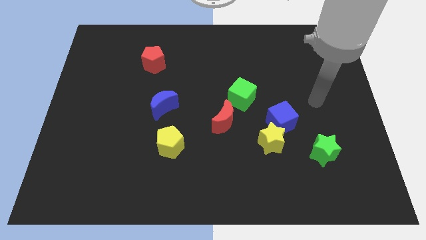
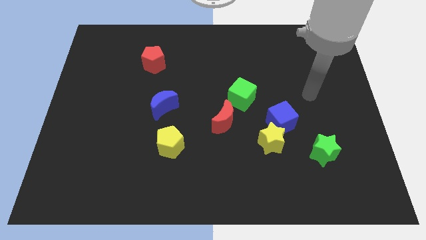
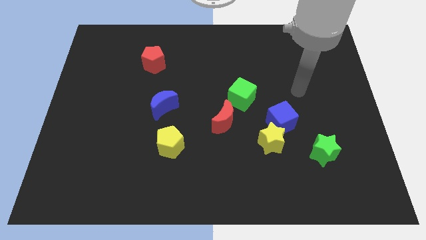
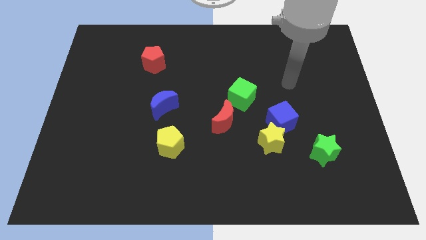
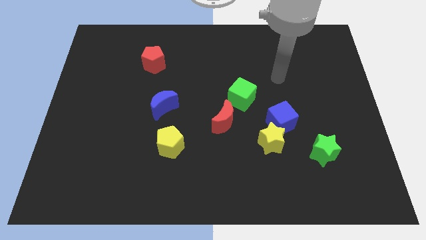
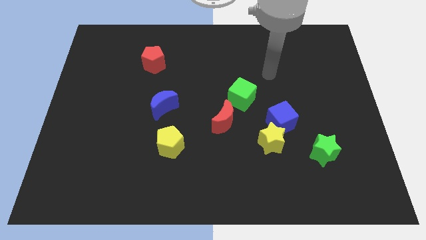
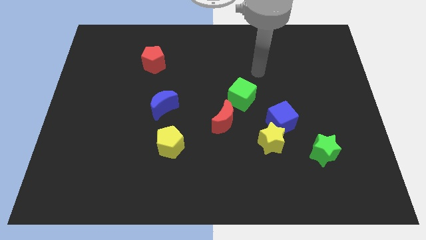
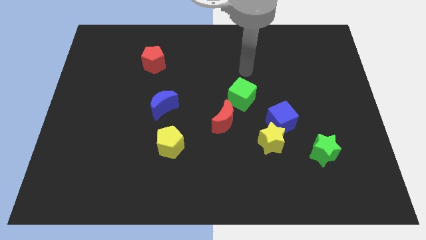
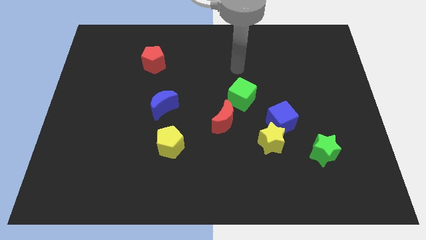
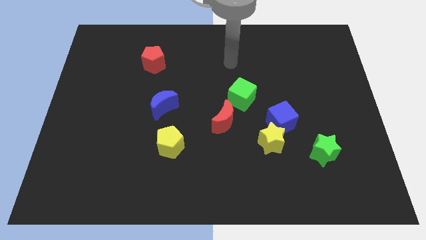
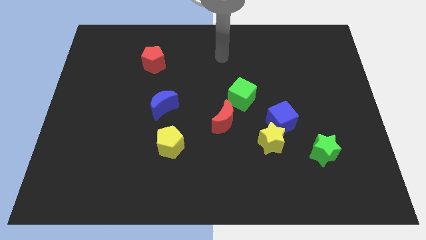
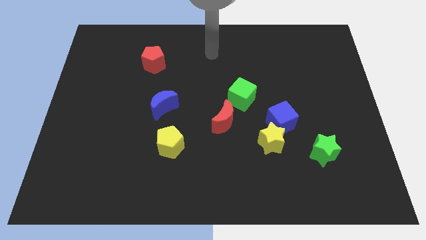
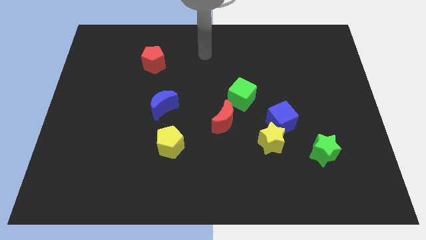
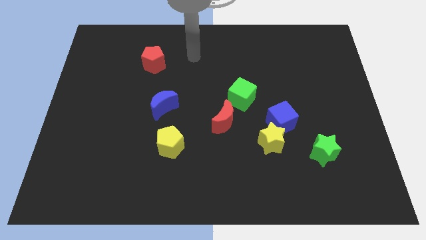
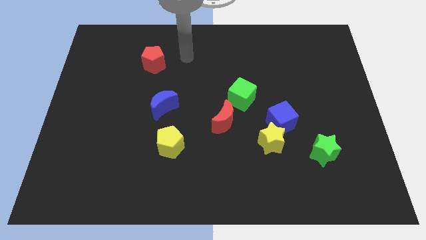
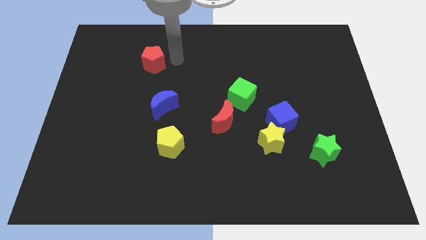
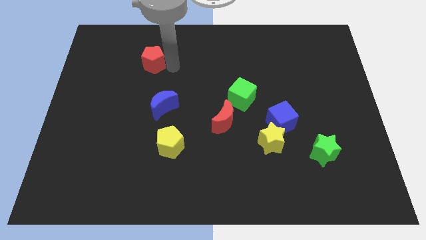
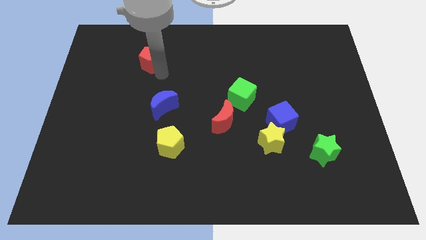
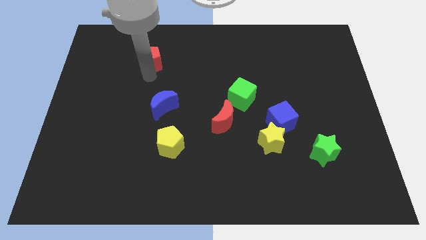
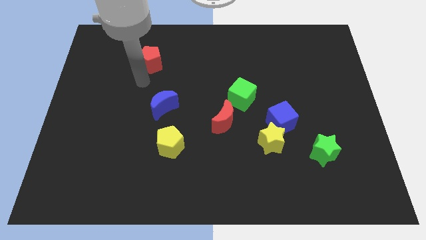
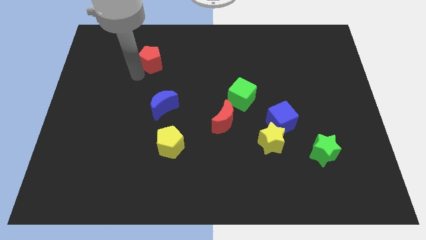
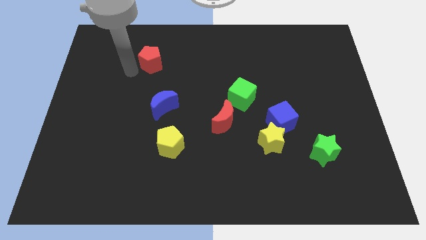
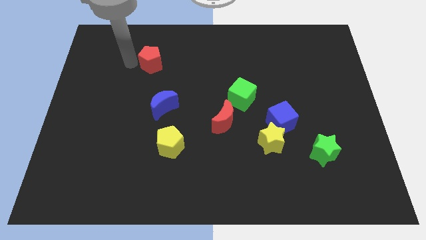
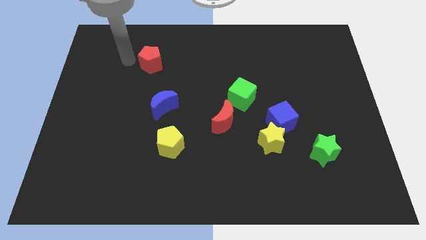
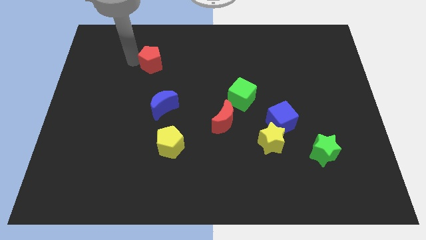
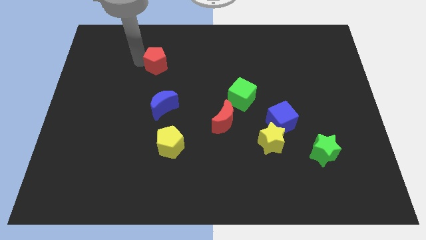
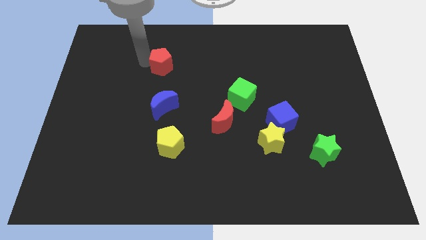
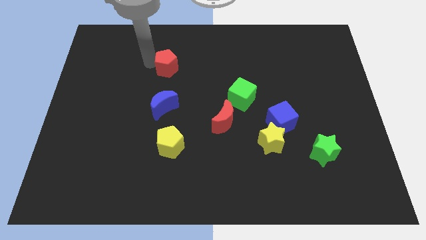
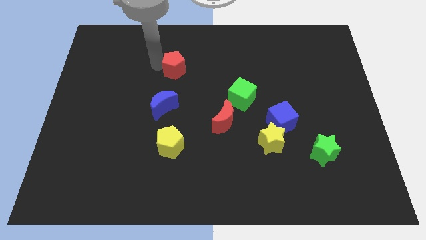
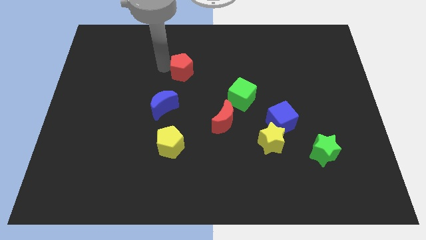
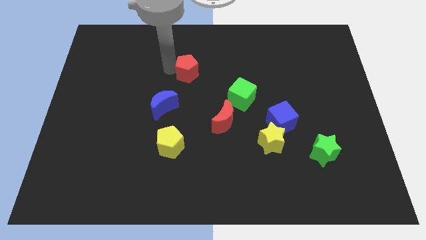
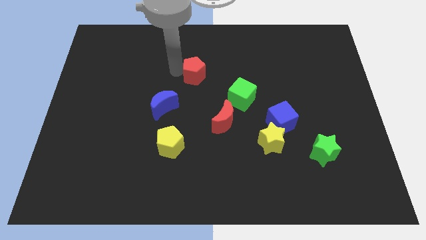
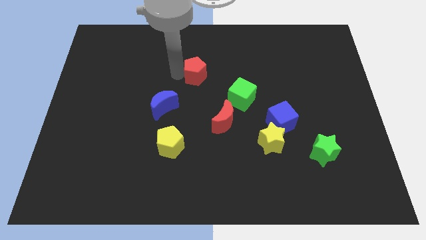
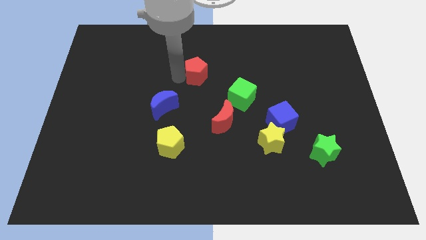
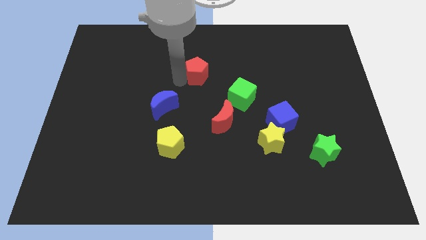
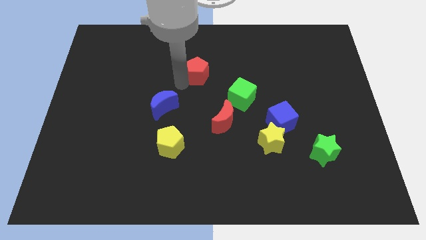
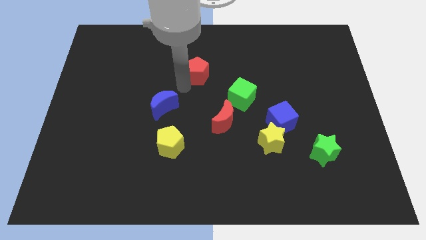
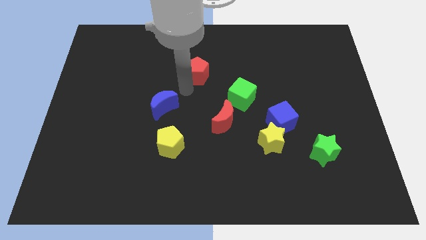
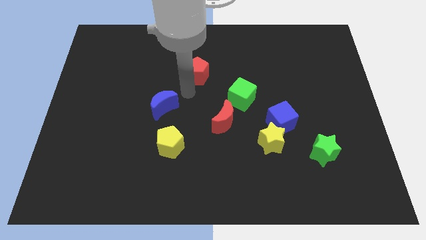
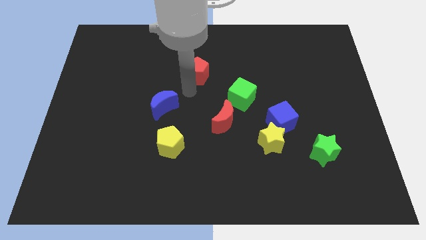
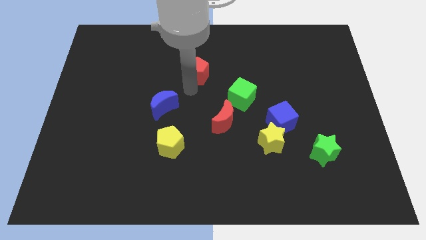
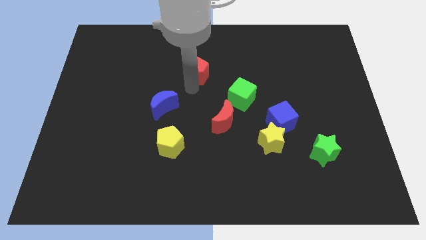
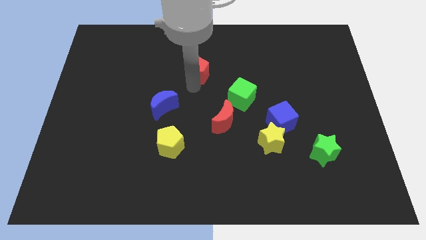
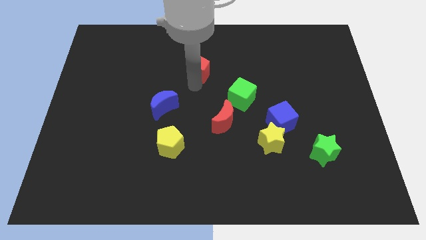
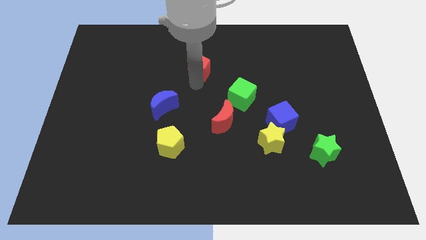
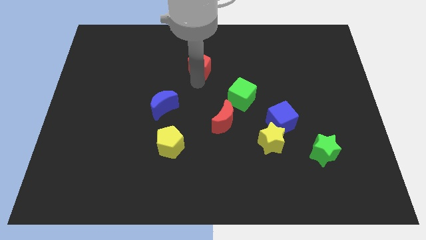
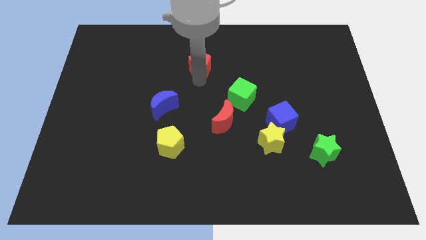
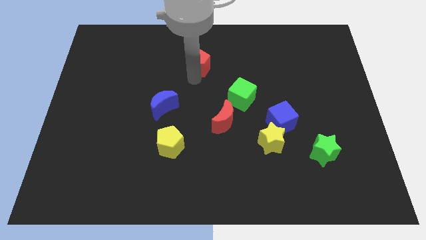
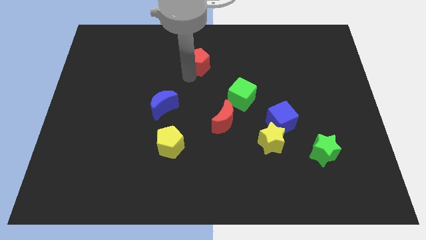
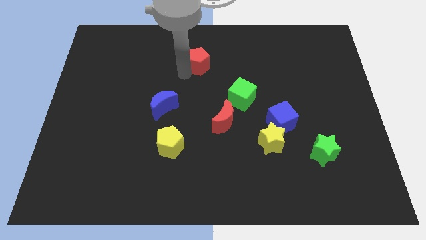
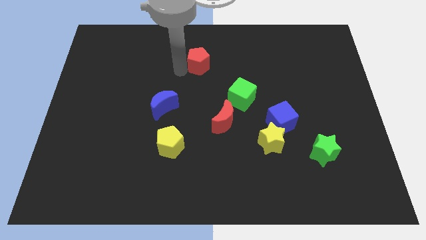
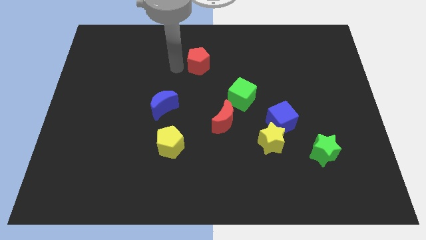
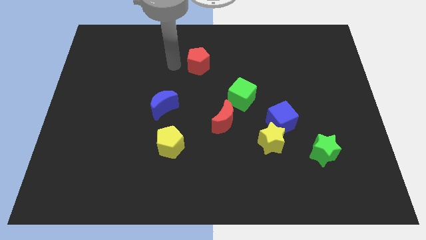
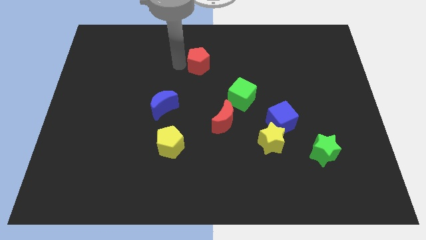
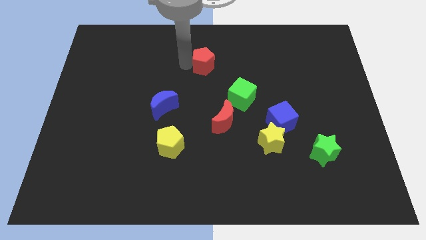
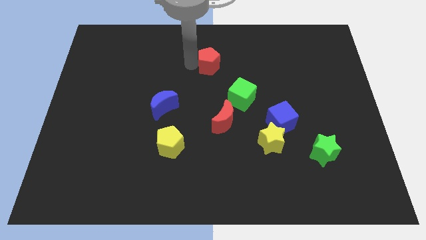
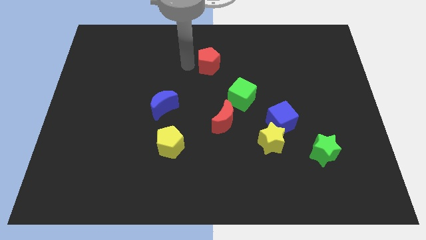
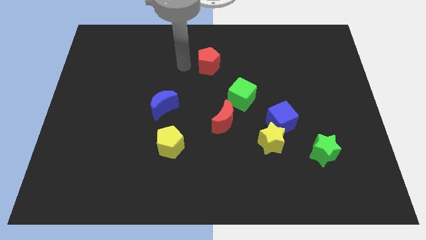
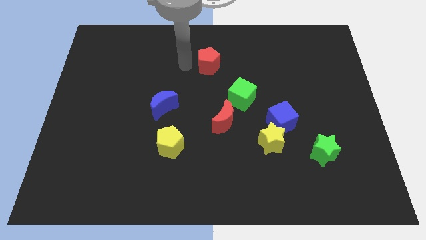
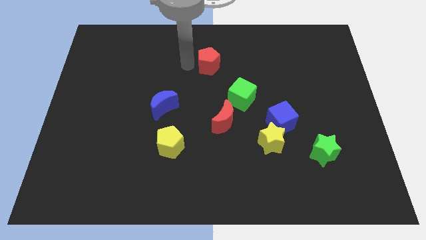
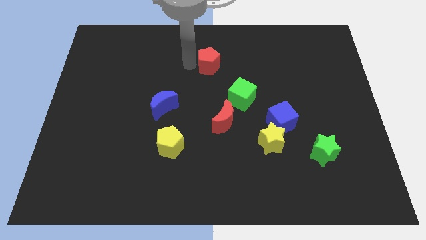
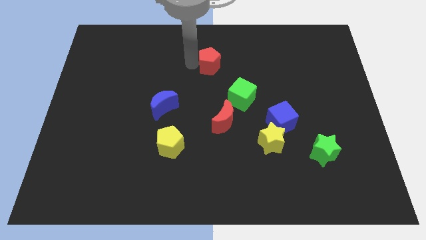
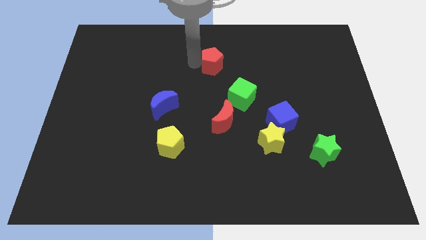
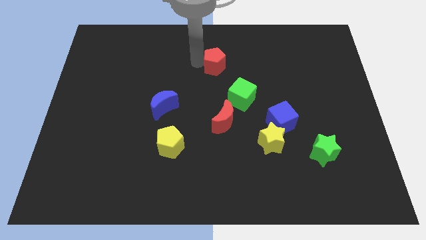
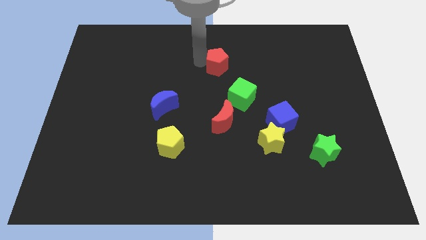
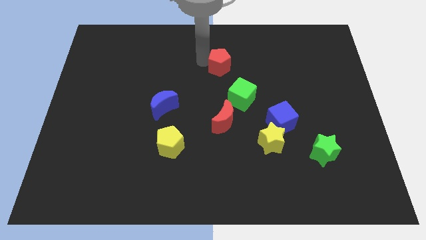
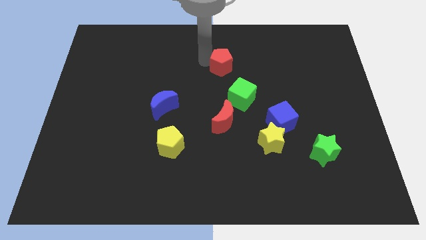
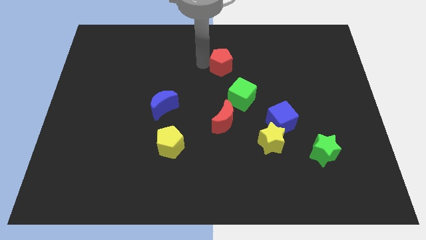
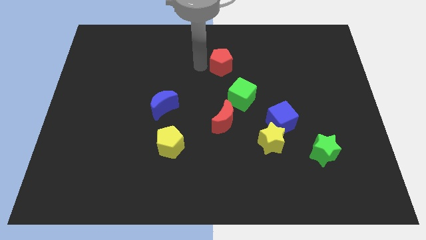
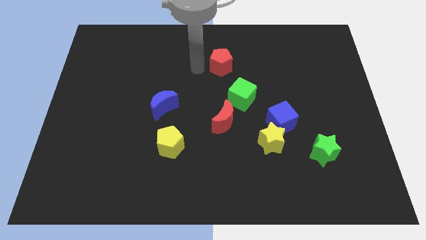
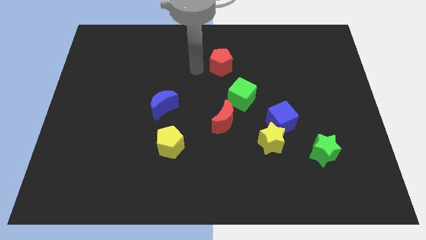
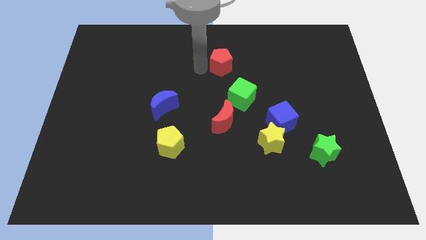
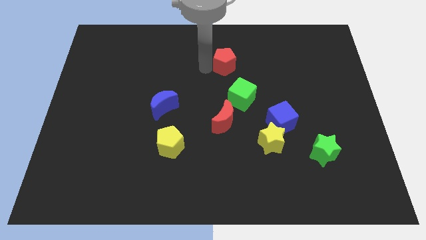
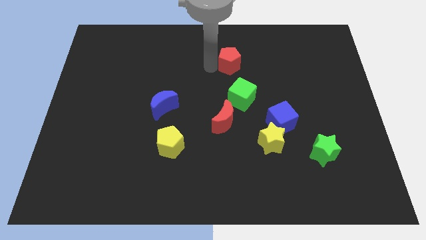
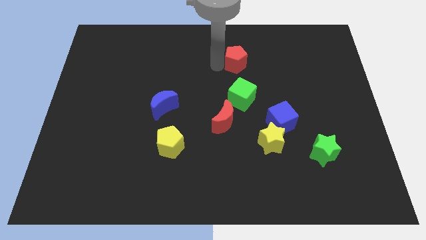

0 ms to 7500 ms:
push the red pentagon to the right

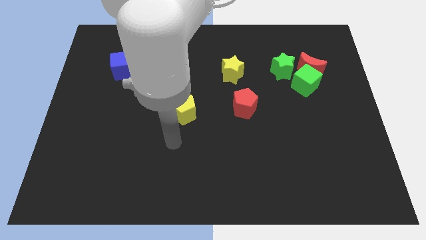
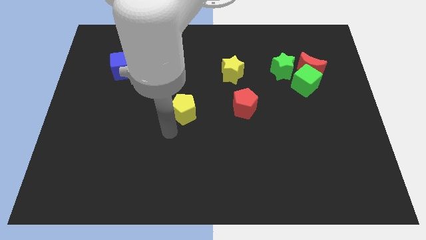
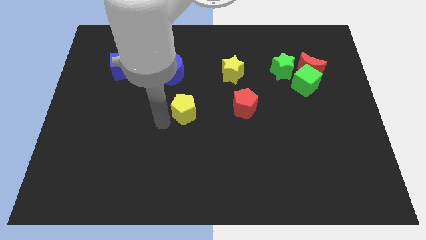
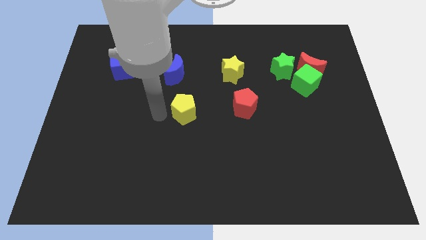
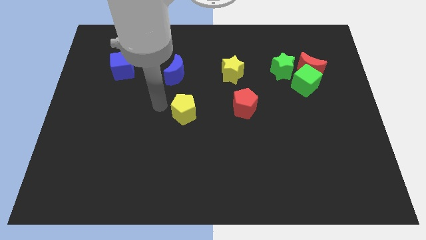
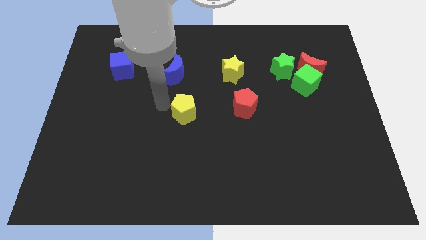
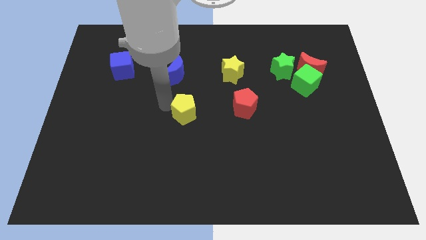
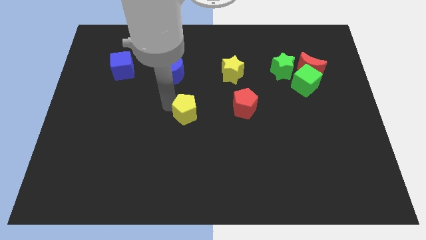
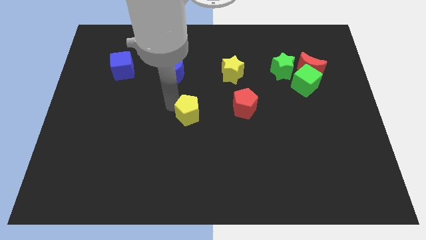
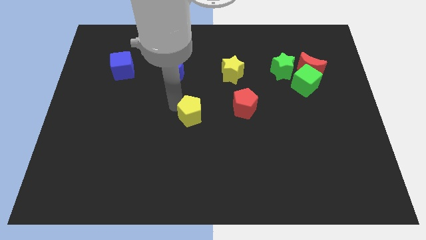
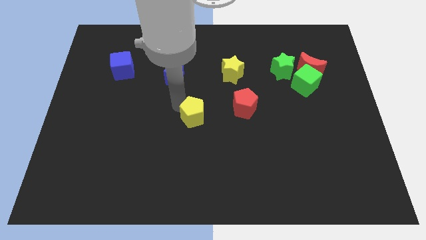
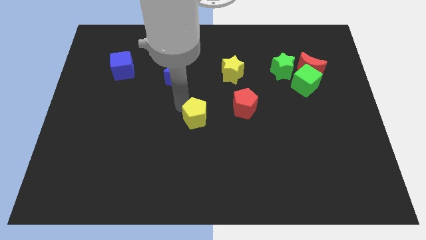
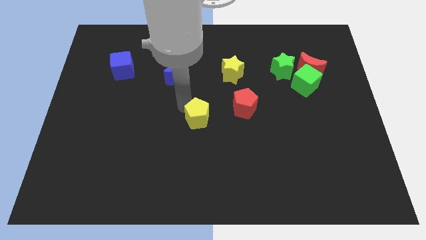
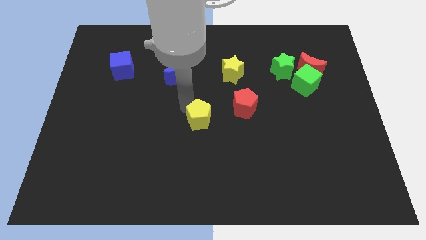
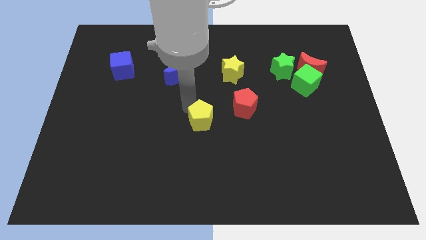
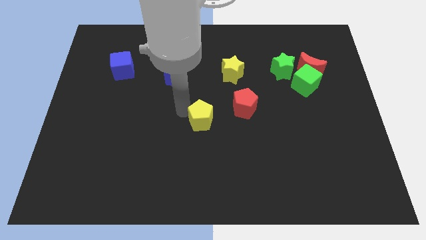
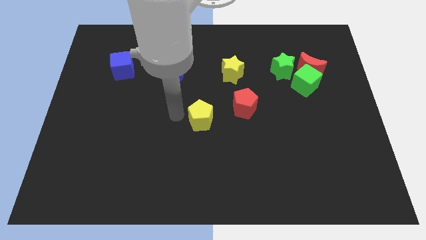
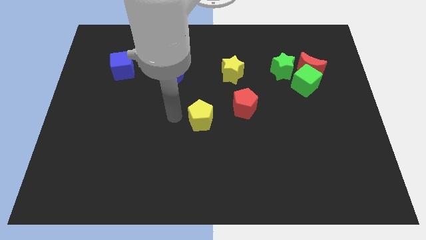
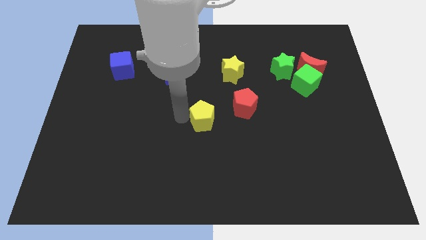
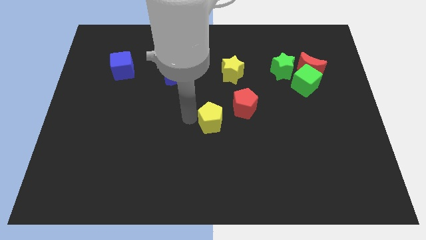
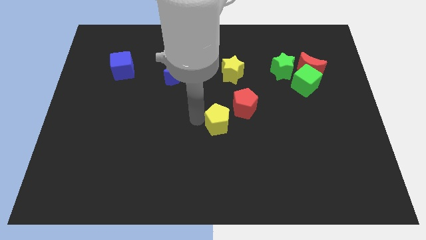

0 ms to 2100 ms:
push the yellow pentagon somewhat to the right
